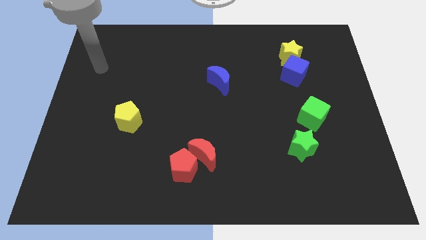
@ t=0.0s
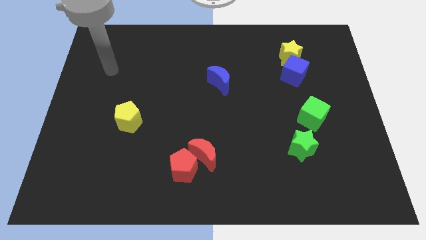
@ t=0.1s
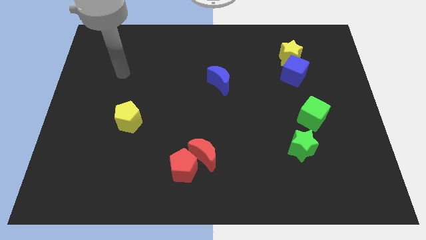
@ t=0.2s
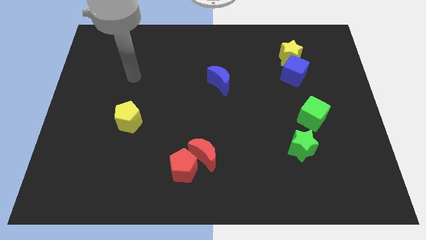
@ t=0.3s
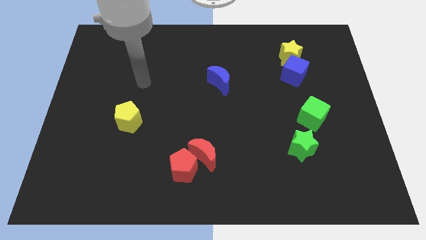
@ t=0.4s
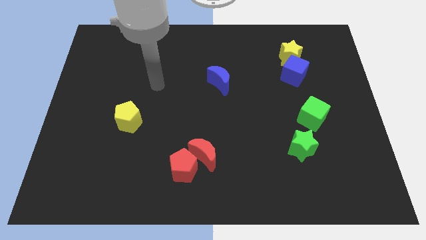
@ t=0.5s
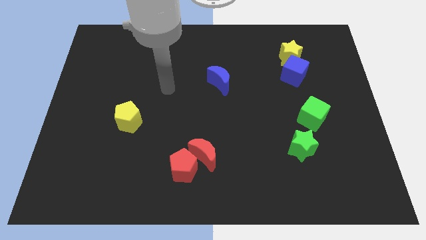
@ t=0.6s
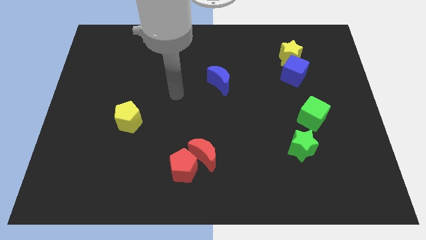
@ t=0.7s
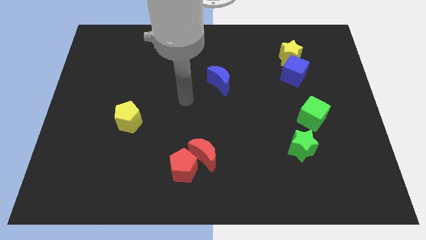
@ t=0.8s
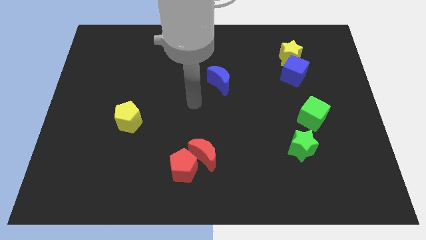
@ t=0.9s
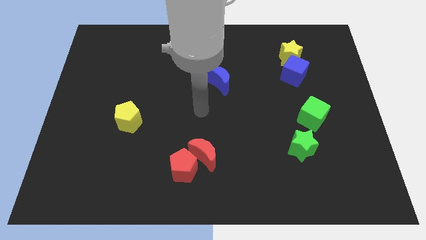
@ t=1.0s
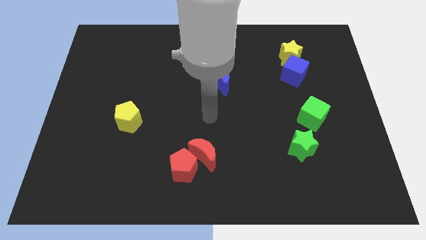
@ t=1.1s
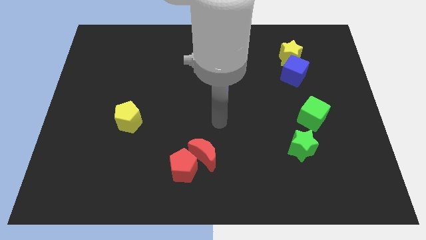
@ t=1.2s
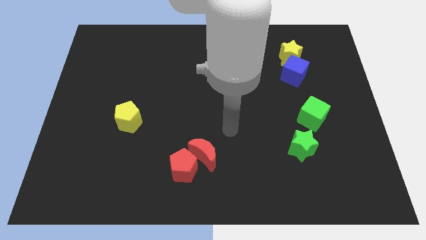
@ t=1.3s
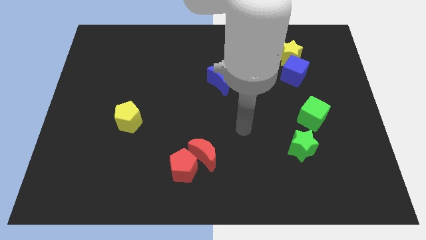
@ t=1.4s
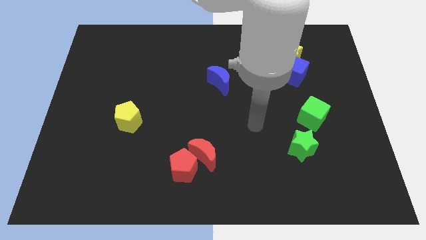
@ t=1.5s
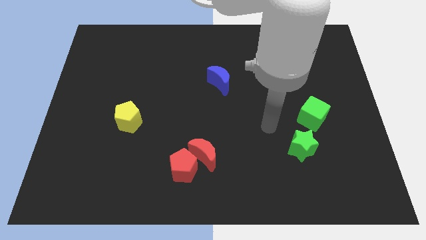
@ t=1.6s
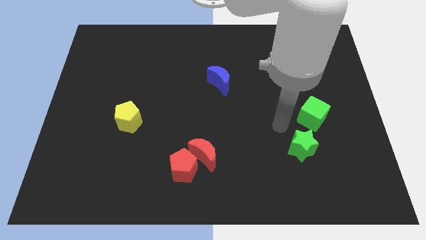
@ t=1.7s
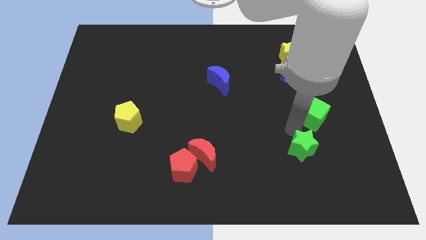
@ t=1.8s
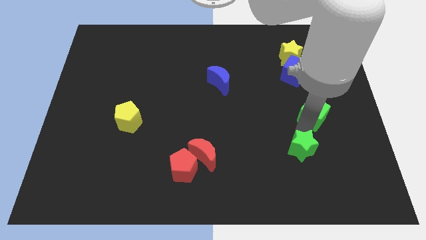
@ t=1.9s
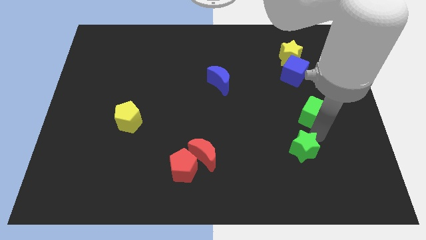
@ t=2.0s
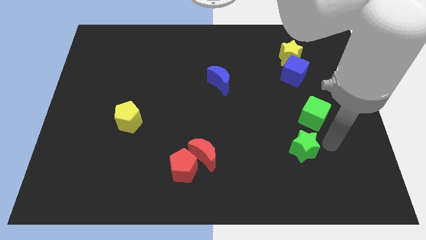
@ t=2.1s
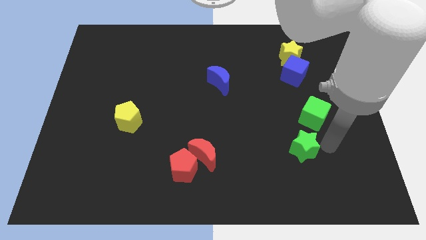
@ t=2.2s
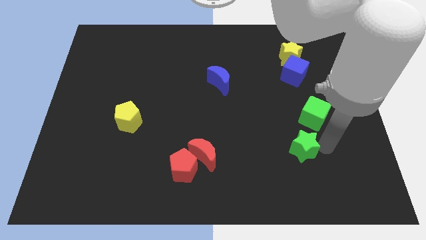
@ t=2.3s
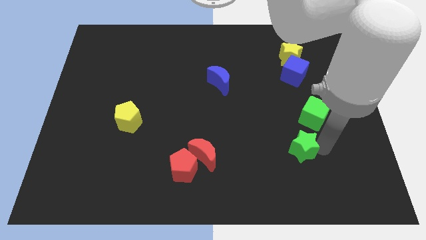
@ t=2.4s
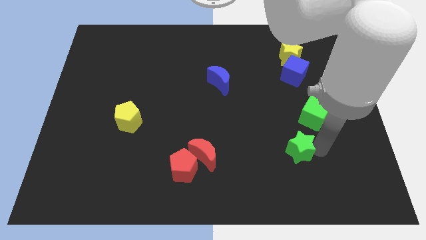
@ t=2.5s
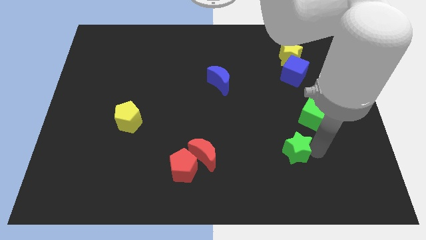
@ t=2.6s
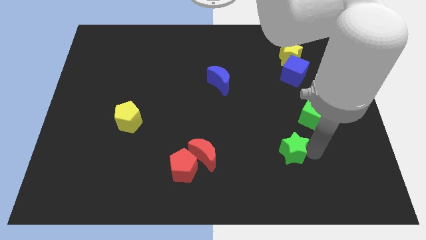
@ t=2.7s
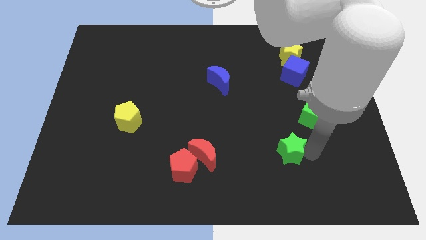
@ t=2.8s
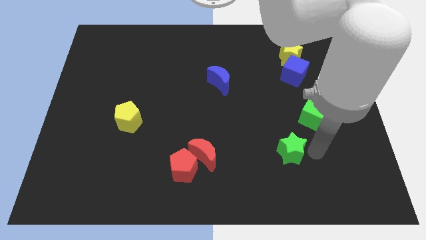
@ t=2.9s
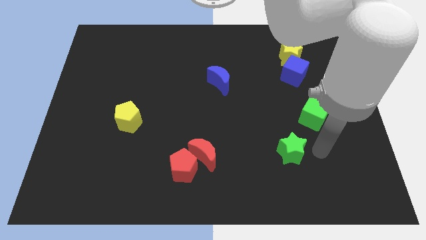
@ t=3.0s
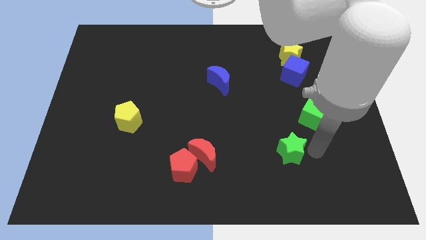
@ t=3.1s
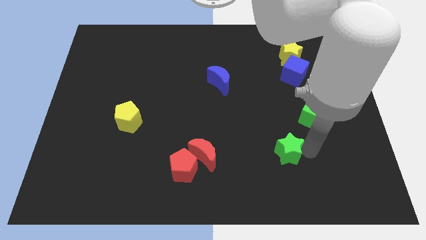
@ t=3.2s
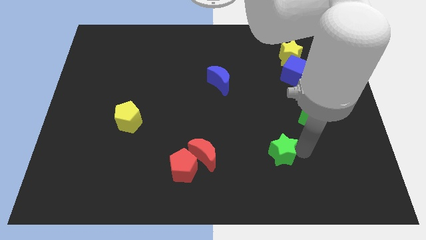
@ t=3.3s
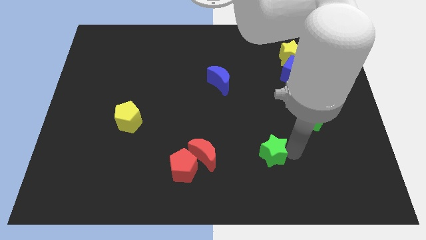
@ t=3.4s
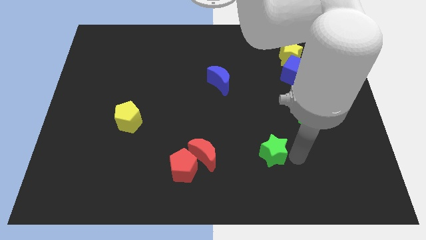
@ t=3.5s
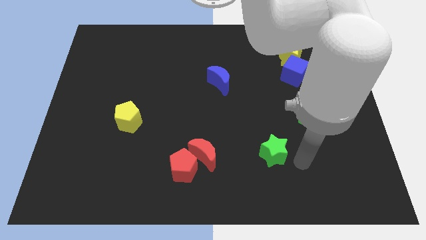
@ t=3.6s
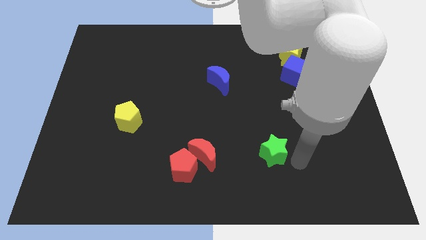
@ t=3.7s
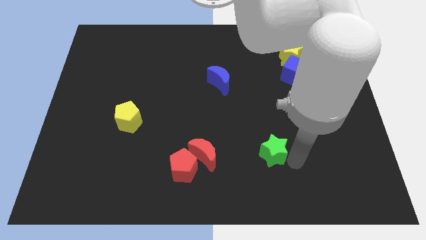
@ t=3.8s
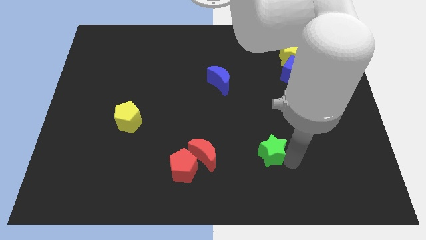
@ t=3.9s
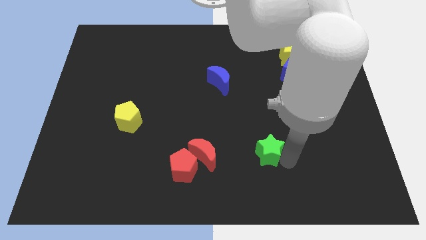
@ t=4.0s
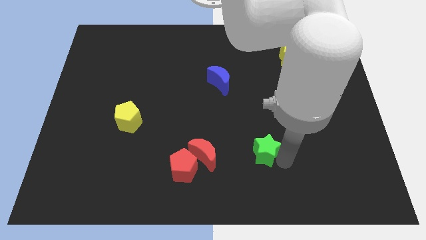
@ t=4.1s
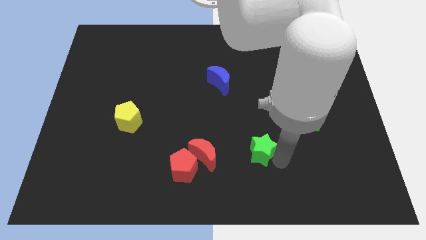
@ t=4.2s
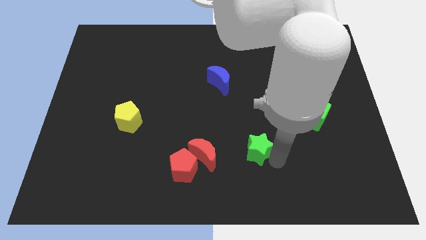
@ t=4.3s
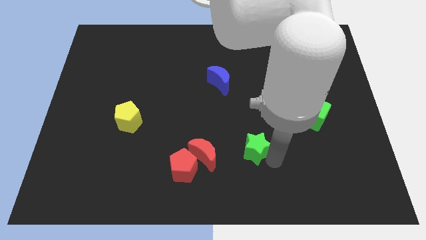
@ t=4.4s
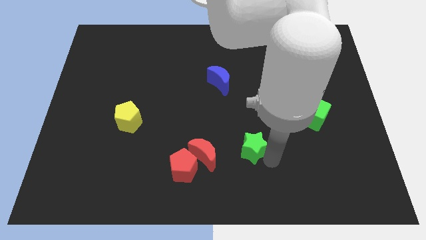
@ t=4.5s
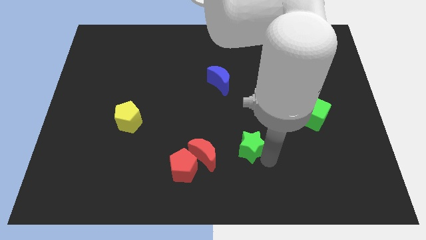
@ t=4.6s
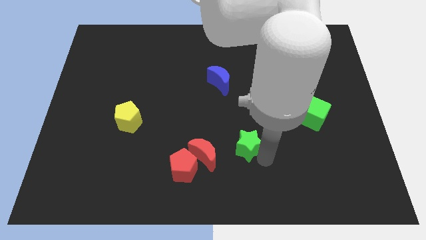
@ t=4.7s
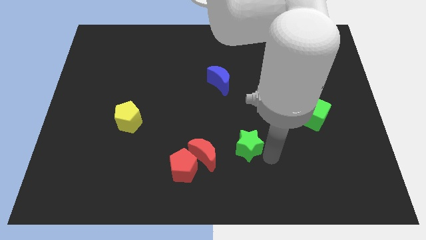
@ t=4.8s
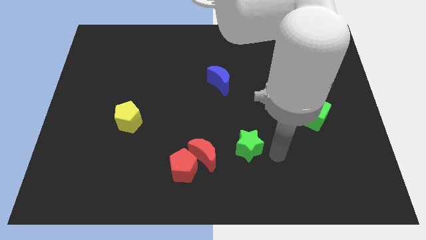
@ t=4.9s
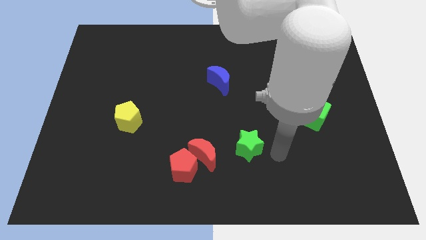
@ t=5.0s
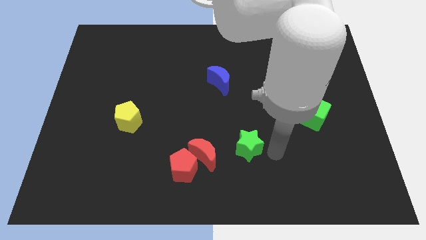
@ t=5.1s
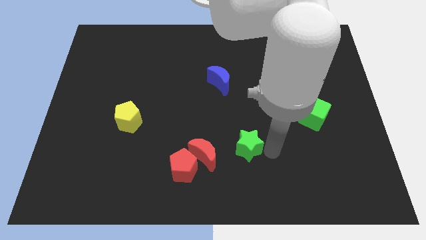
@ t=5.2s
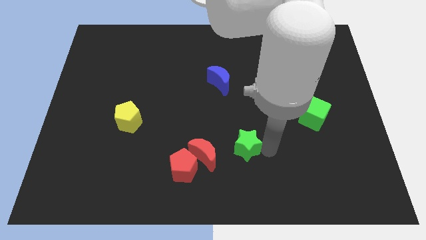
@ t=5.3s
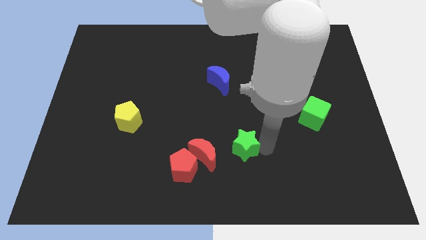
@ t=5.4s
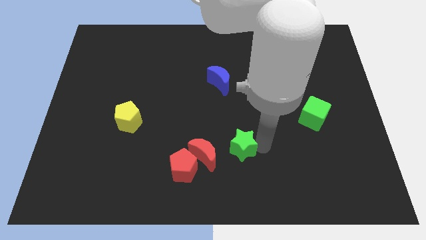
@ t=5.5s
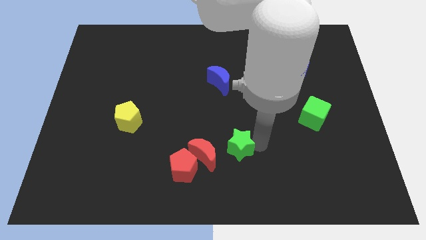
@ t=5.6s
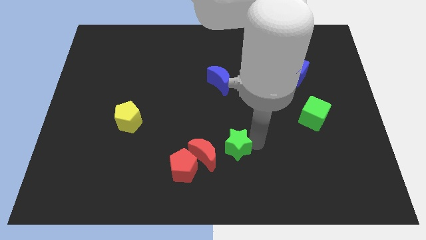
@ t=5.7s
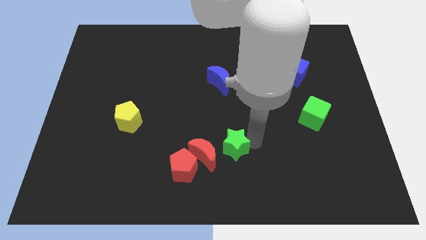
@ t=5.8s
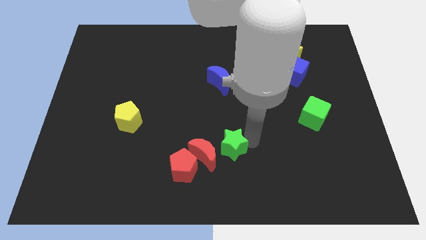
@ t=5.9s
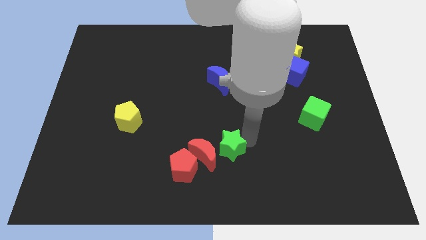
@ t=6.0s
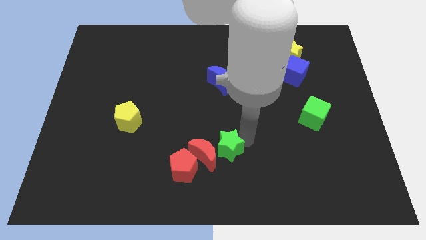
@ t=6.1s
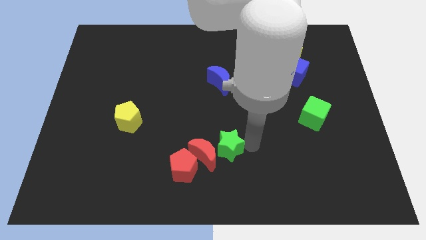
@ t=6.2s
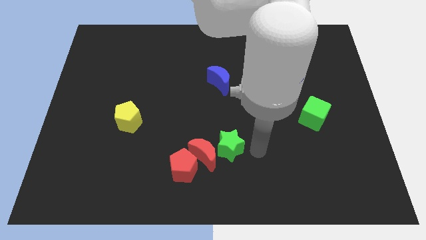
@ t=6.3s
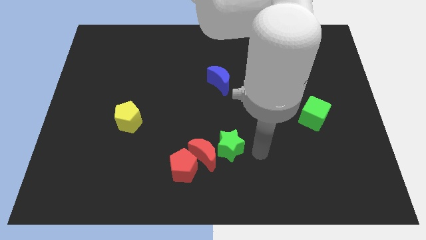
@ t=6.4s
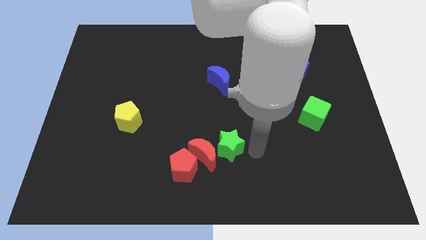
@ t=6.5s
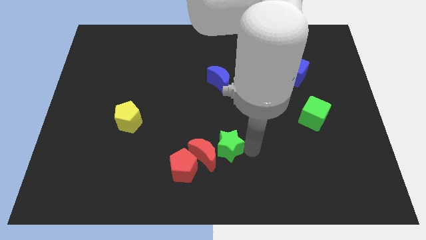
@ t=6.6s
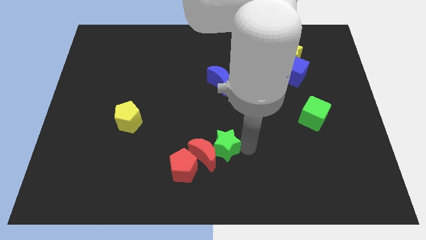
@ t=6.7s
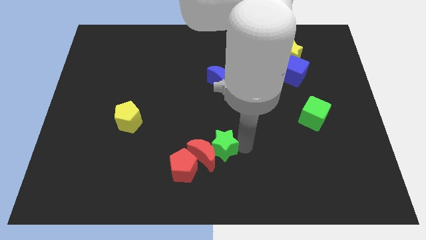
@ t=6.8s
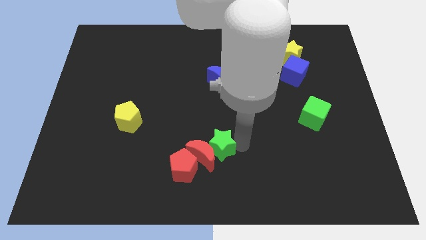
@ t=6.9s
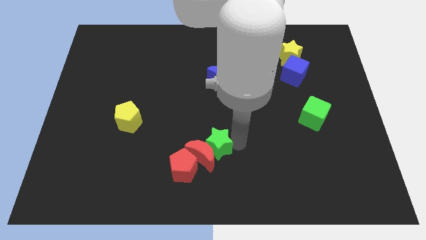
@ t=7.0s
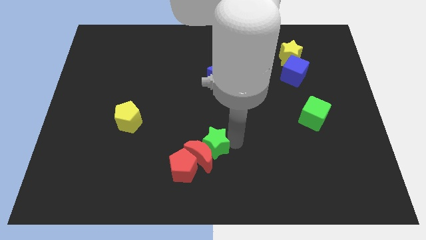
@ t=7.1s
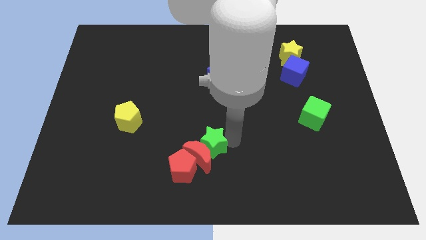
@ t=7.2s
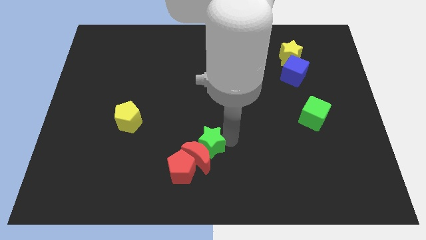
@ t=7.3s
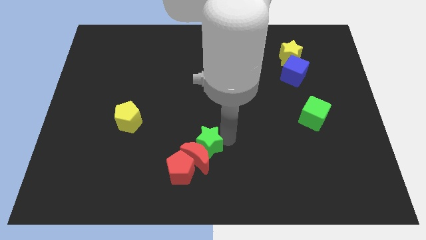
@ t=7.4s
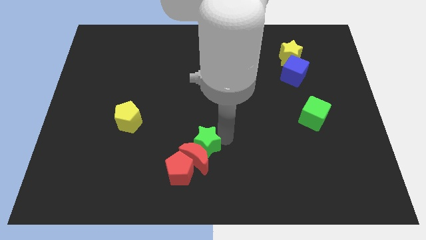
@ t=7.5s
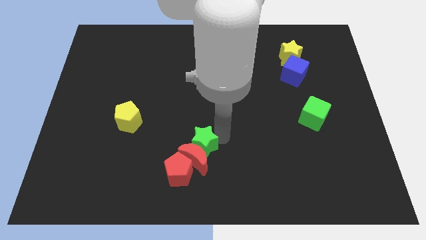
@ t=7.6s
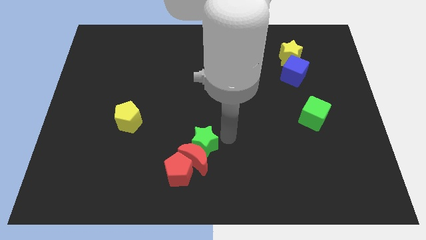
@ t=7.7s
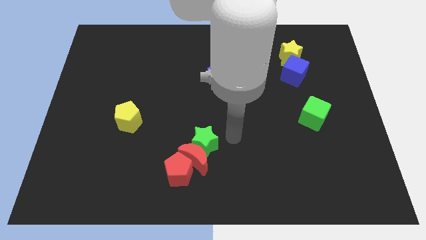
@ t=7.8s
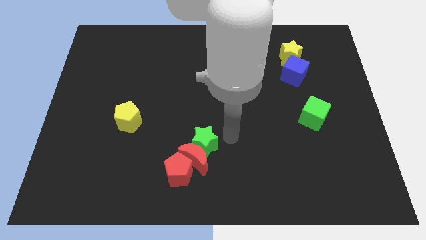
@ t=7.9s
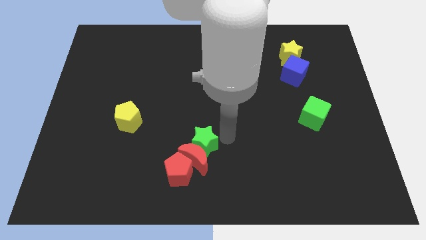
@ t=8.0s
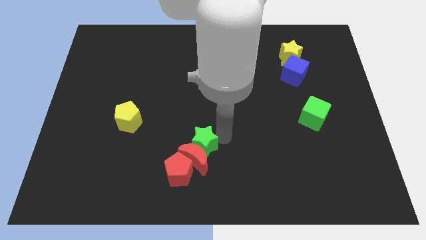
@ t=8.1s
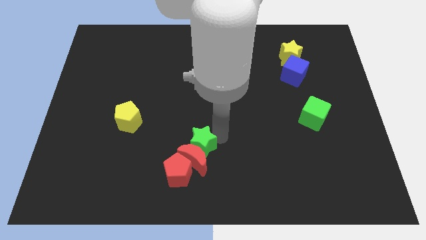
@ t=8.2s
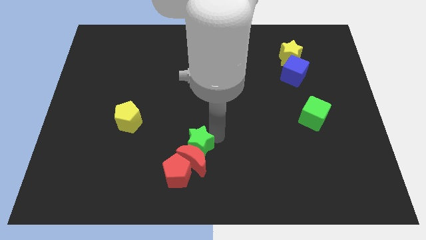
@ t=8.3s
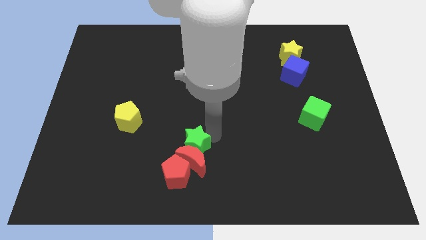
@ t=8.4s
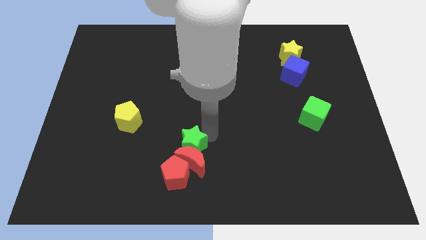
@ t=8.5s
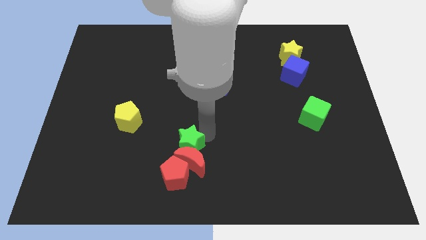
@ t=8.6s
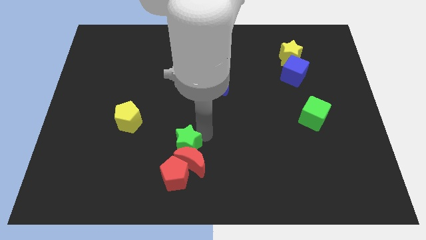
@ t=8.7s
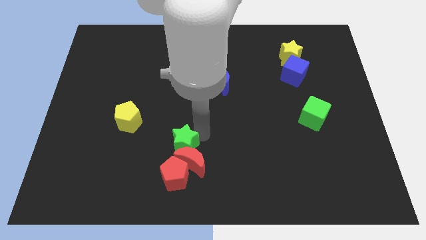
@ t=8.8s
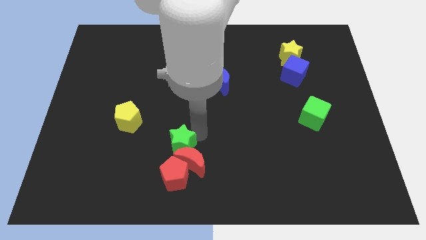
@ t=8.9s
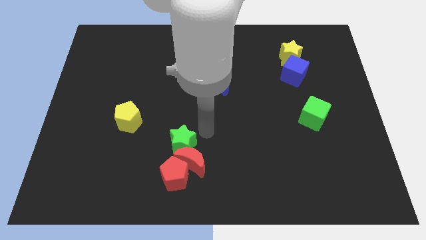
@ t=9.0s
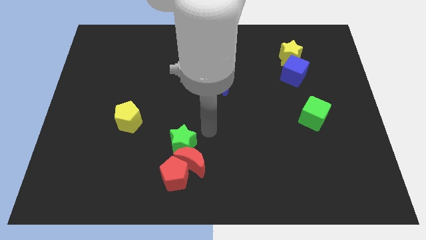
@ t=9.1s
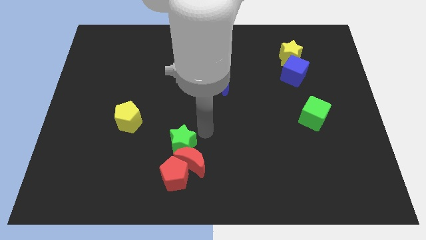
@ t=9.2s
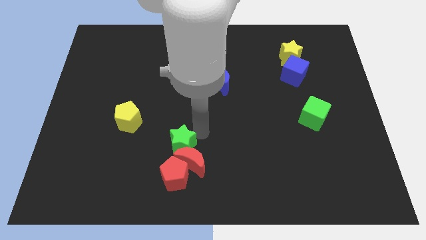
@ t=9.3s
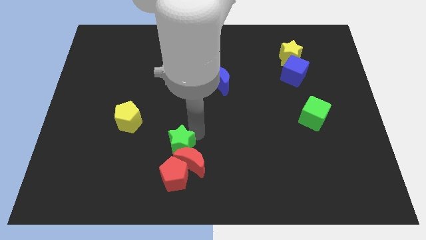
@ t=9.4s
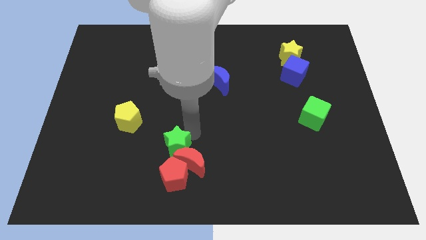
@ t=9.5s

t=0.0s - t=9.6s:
move the green star to the left side of the red moon
